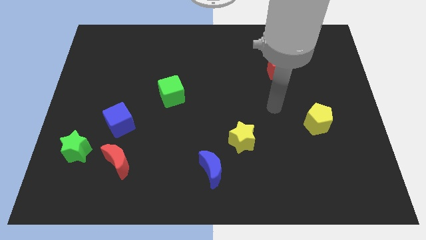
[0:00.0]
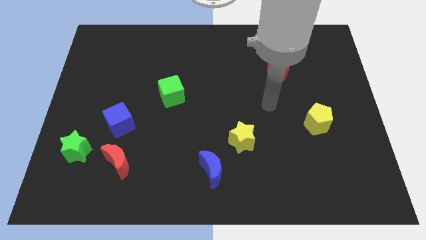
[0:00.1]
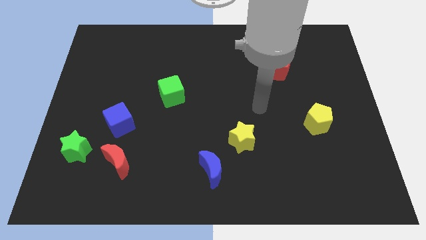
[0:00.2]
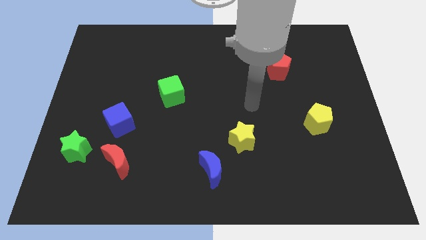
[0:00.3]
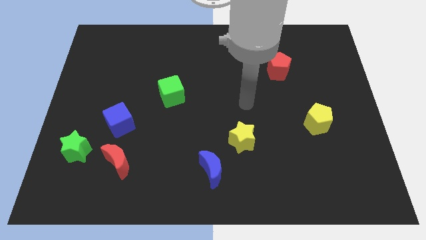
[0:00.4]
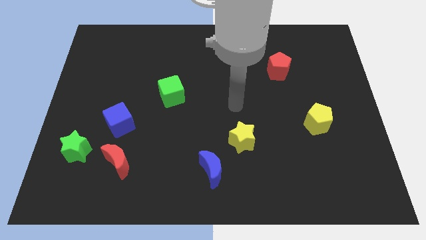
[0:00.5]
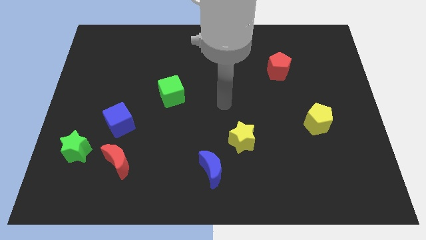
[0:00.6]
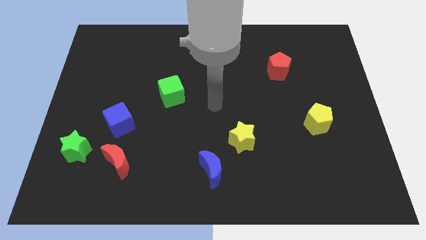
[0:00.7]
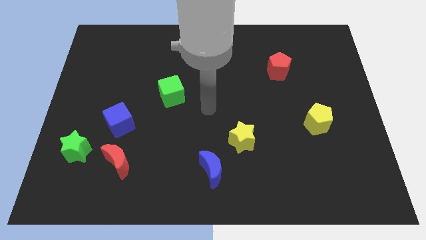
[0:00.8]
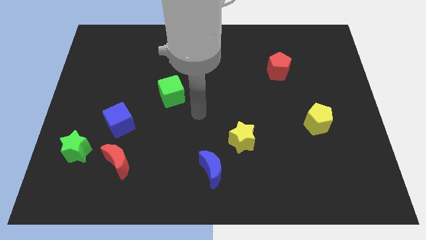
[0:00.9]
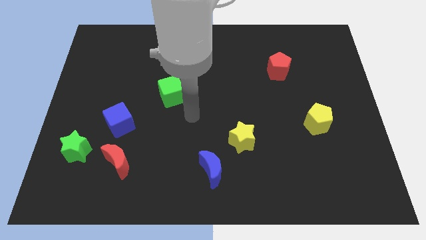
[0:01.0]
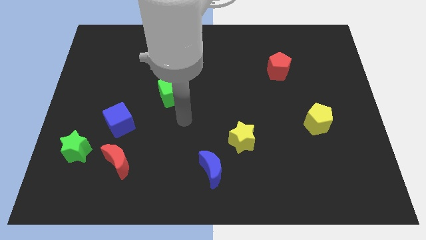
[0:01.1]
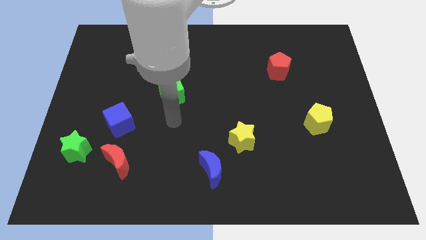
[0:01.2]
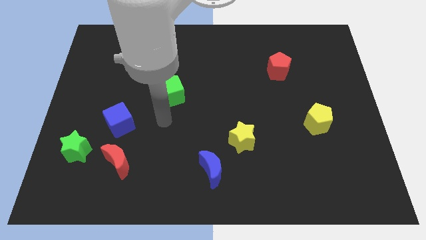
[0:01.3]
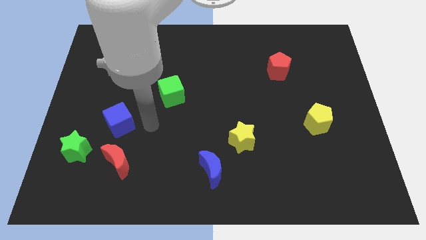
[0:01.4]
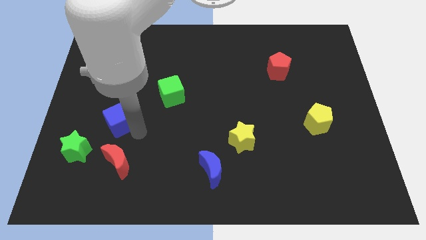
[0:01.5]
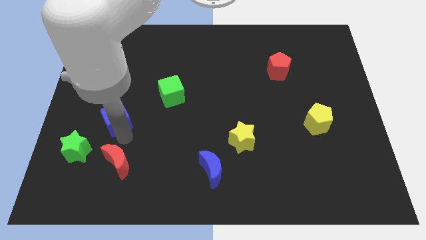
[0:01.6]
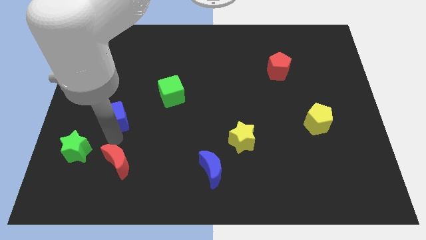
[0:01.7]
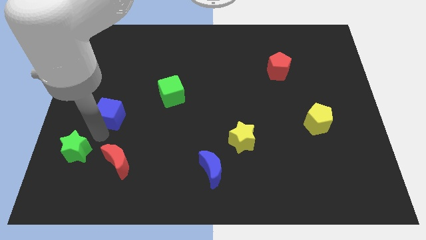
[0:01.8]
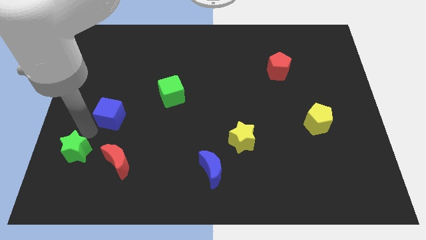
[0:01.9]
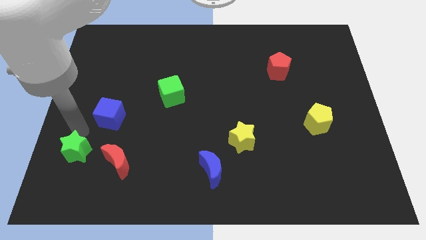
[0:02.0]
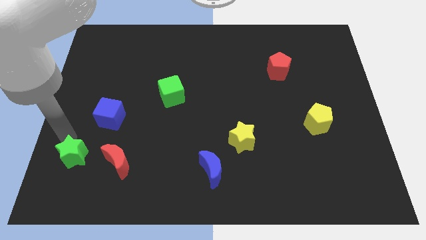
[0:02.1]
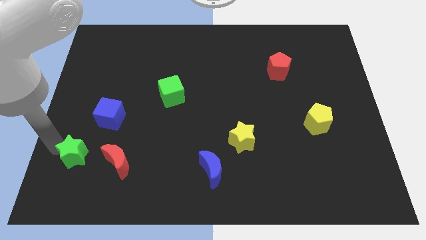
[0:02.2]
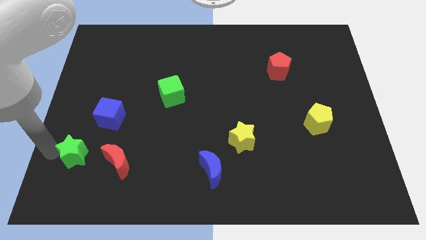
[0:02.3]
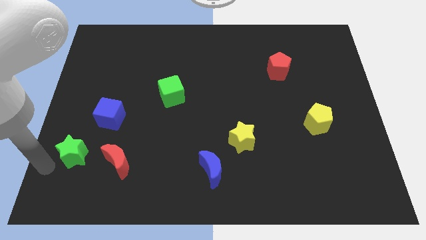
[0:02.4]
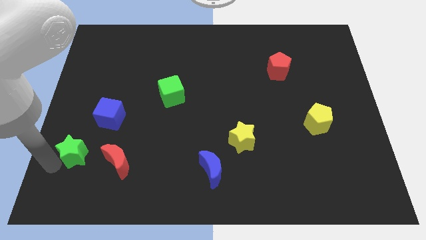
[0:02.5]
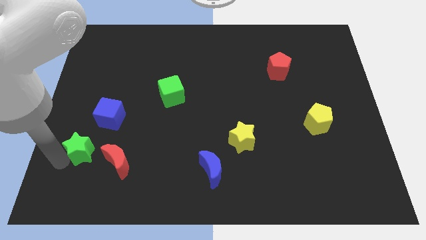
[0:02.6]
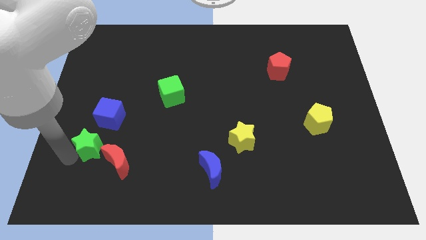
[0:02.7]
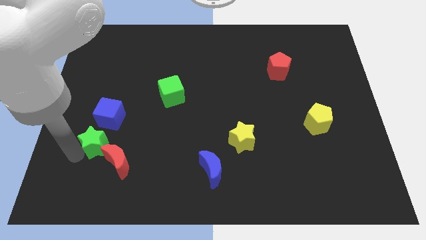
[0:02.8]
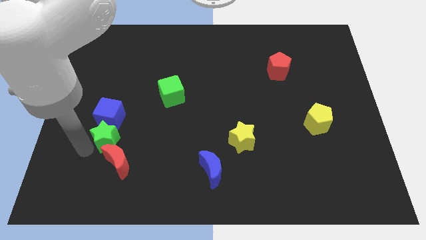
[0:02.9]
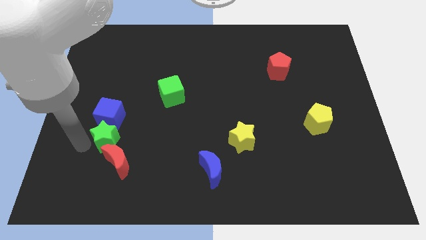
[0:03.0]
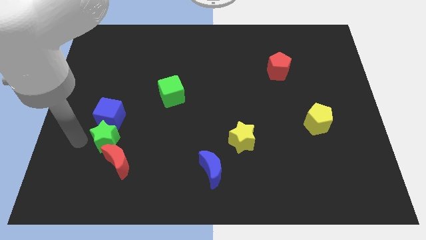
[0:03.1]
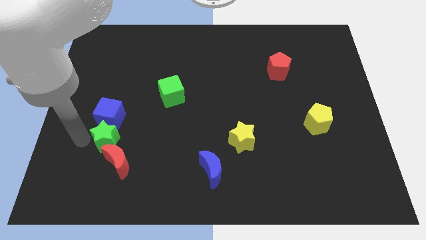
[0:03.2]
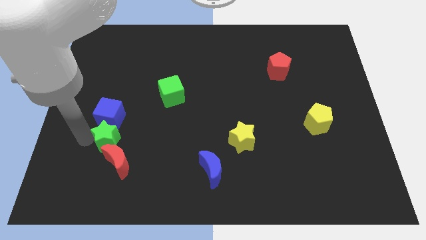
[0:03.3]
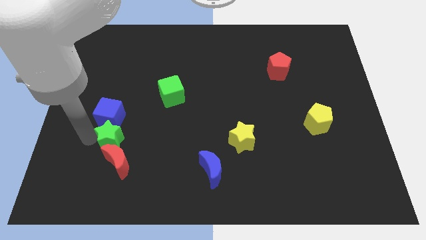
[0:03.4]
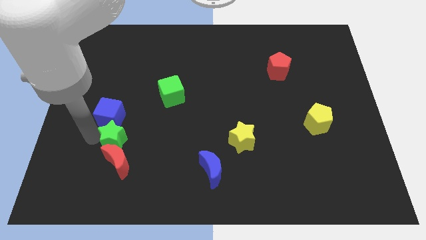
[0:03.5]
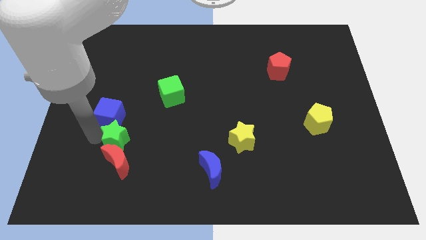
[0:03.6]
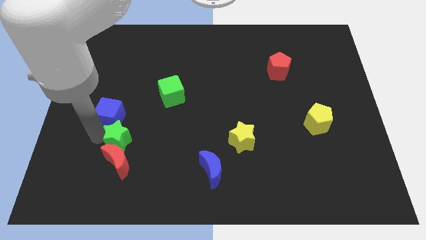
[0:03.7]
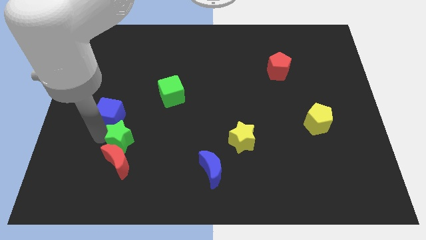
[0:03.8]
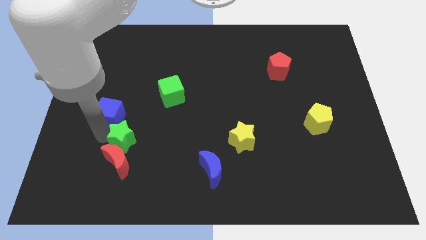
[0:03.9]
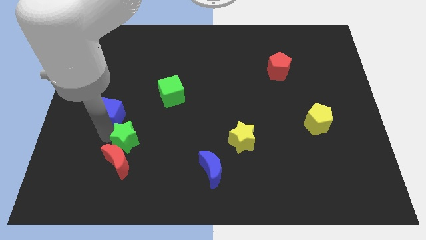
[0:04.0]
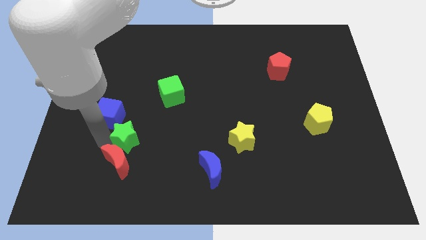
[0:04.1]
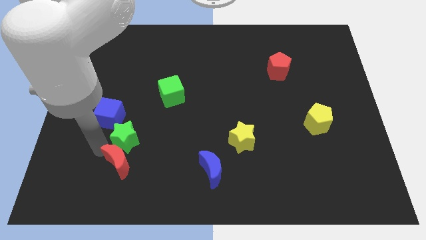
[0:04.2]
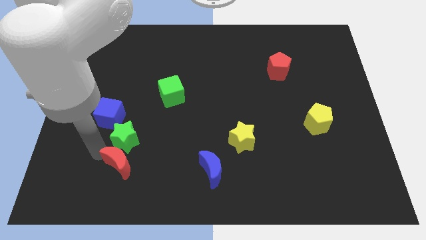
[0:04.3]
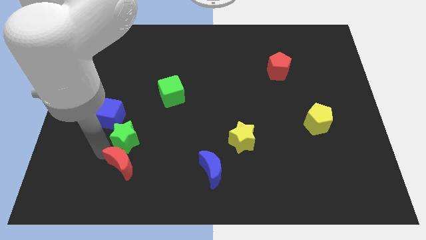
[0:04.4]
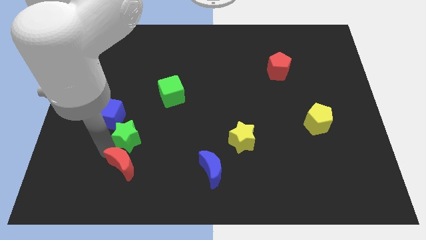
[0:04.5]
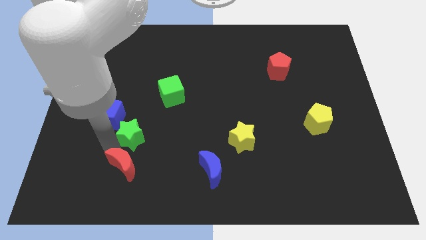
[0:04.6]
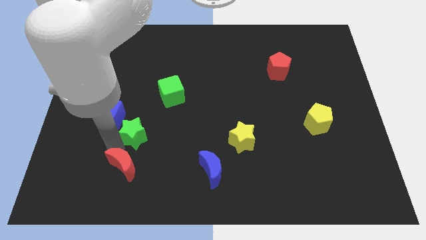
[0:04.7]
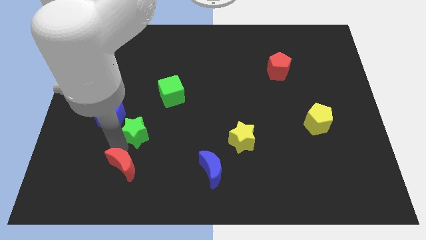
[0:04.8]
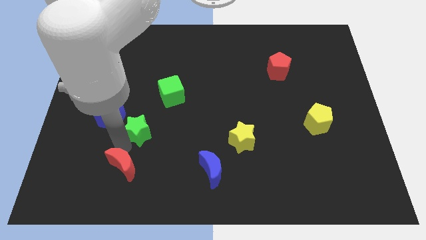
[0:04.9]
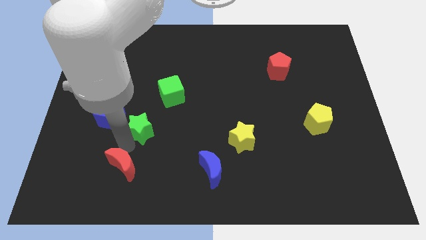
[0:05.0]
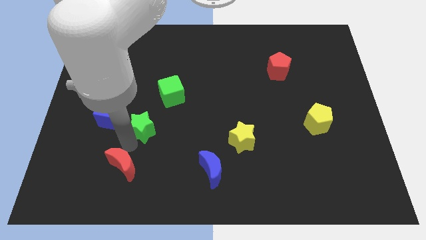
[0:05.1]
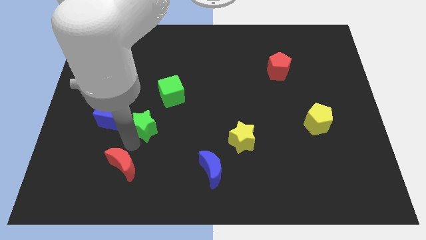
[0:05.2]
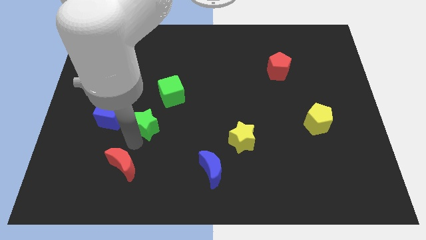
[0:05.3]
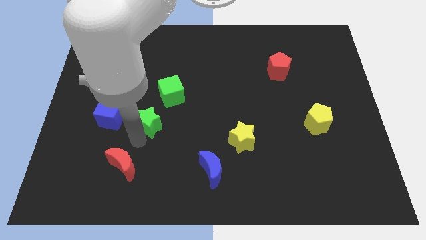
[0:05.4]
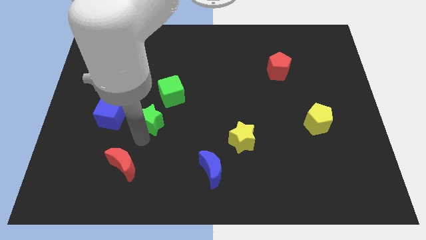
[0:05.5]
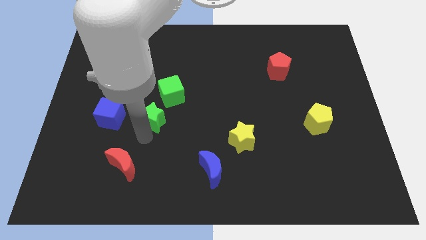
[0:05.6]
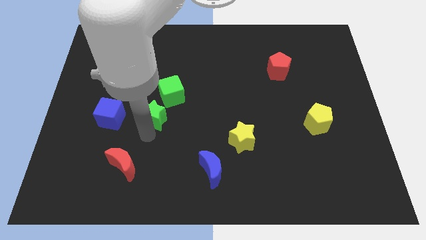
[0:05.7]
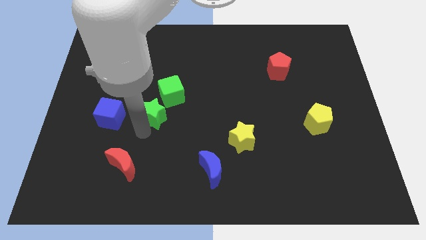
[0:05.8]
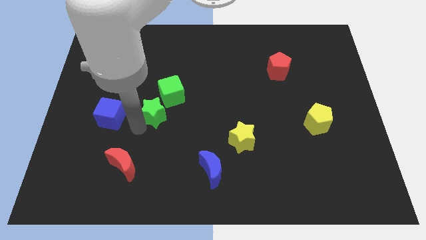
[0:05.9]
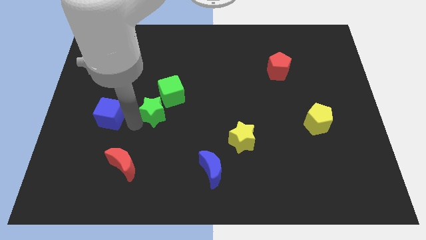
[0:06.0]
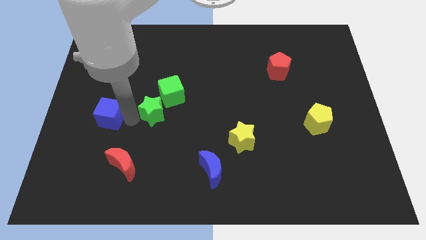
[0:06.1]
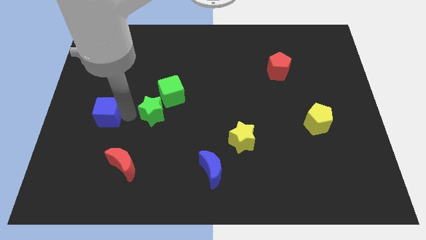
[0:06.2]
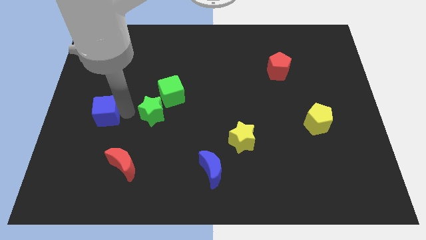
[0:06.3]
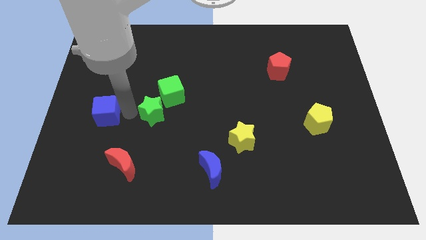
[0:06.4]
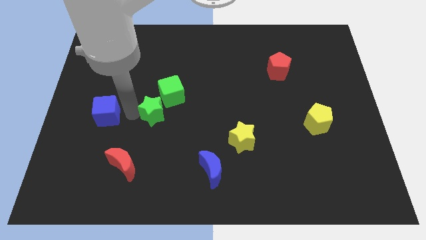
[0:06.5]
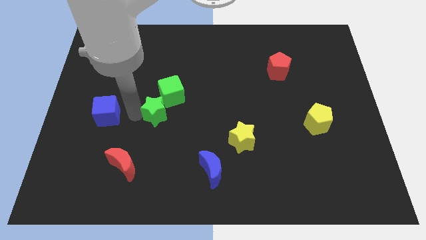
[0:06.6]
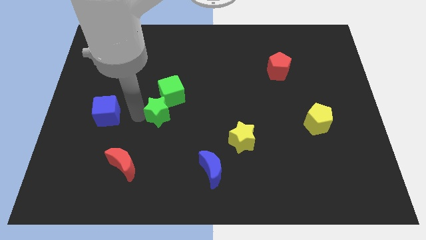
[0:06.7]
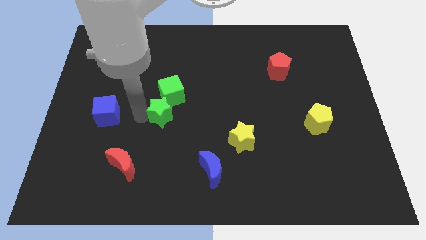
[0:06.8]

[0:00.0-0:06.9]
put the green star to the middle of the board
